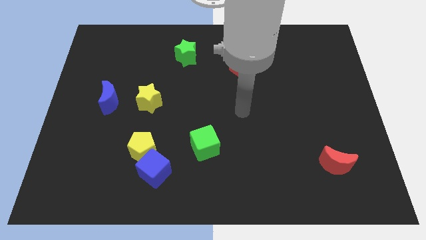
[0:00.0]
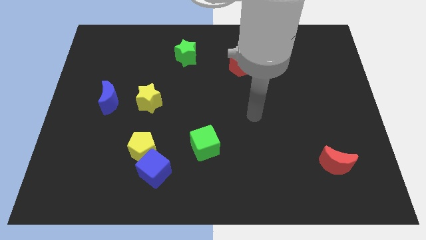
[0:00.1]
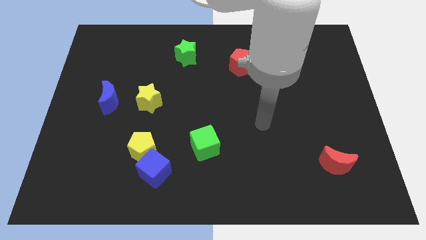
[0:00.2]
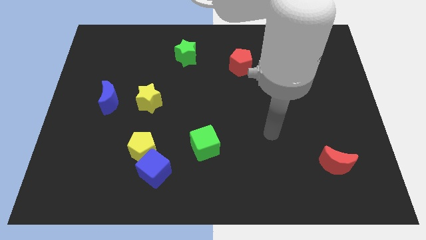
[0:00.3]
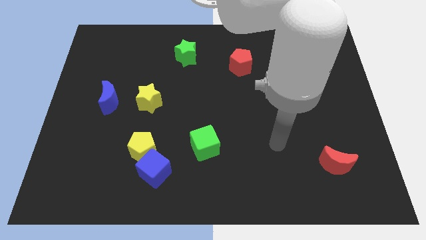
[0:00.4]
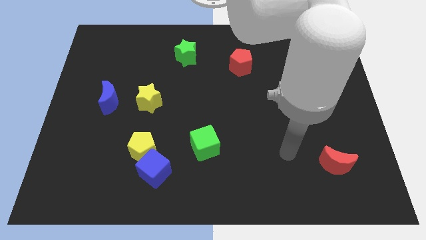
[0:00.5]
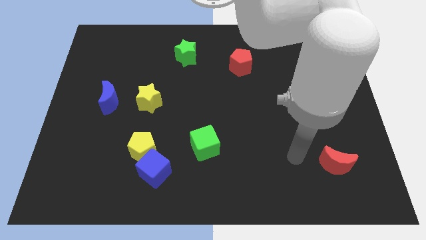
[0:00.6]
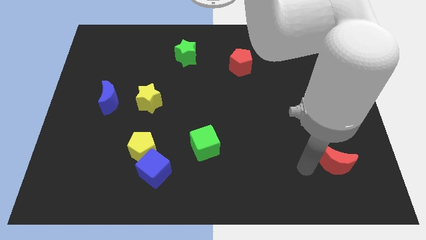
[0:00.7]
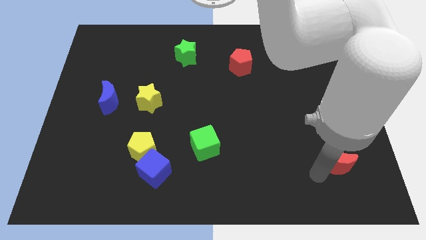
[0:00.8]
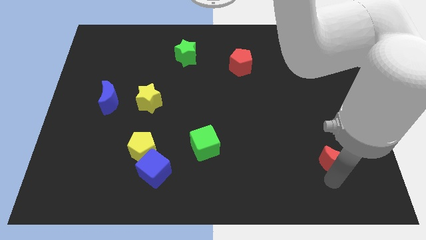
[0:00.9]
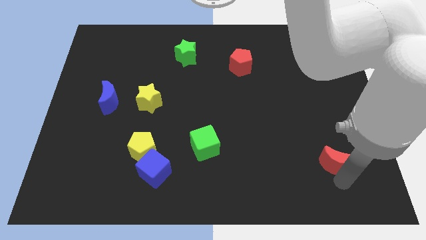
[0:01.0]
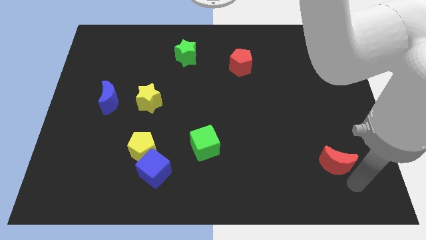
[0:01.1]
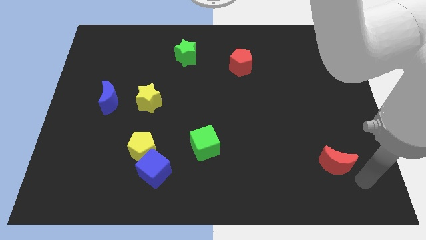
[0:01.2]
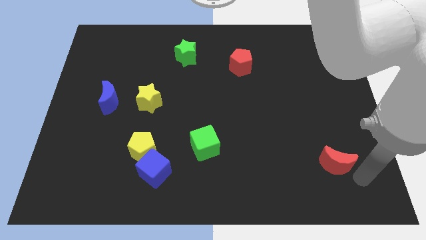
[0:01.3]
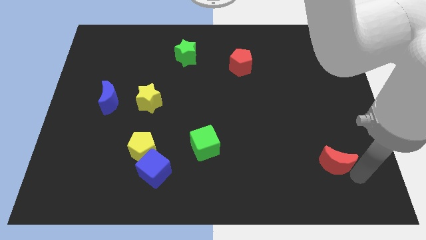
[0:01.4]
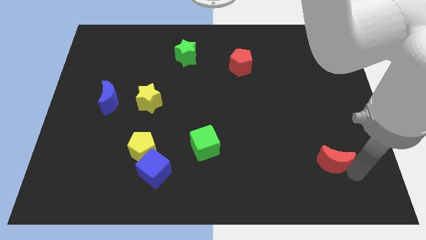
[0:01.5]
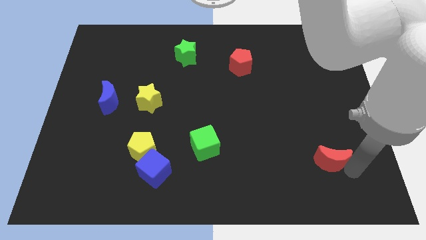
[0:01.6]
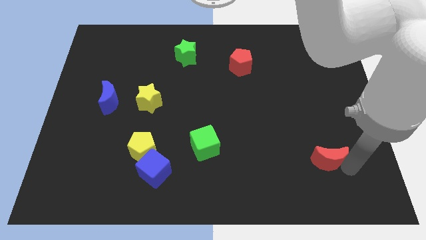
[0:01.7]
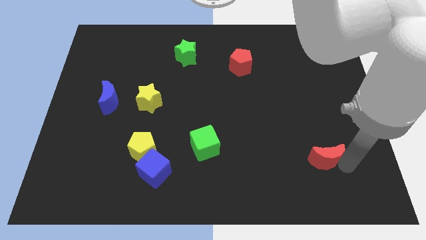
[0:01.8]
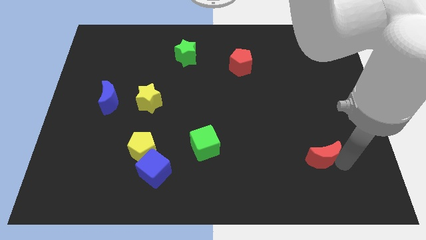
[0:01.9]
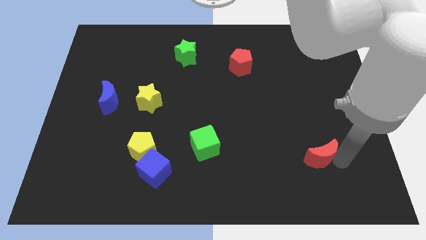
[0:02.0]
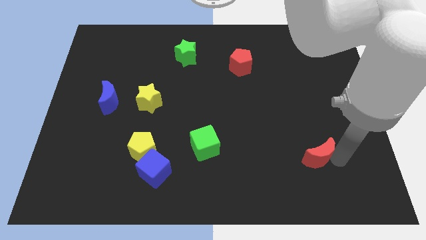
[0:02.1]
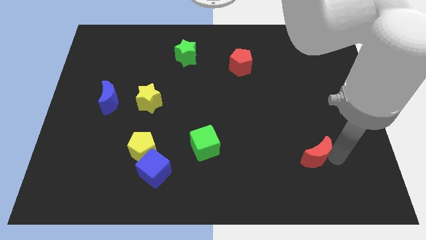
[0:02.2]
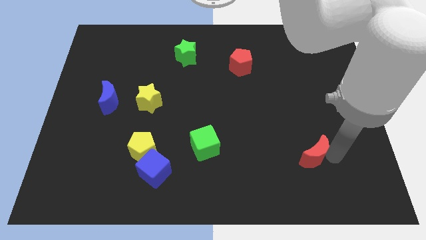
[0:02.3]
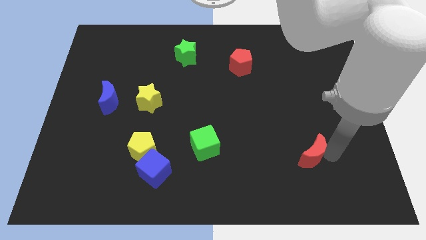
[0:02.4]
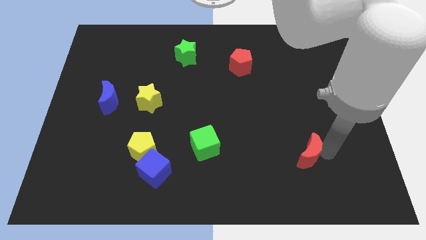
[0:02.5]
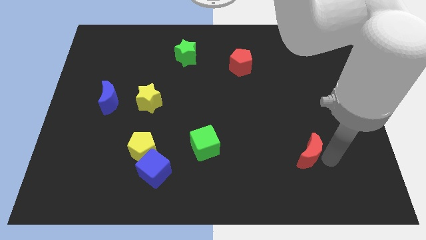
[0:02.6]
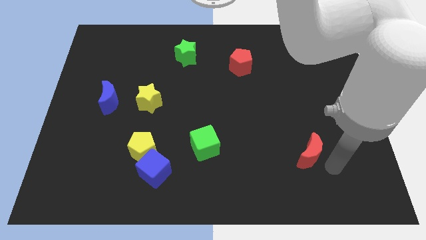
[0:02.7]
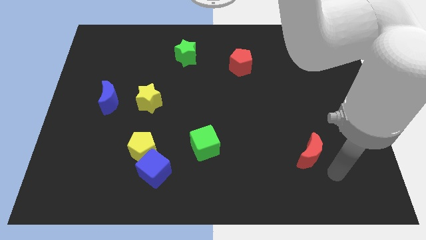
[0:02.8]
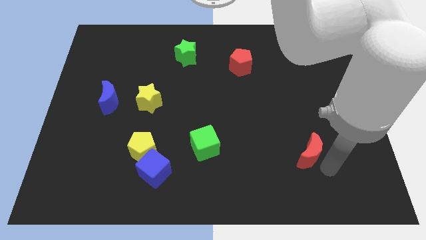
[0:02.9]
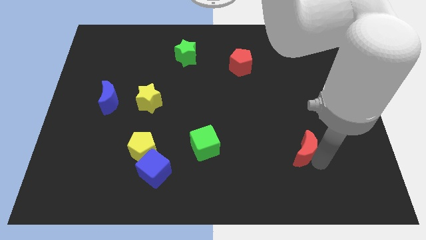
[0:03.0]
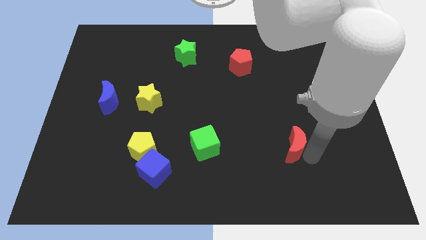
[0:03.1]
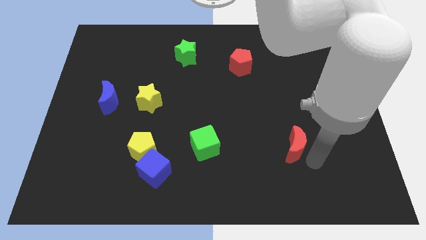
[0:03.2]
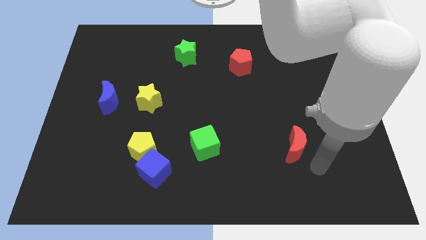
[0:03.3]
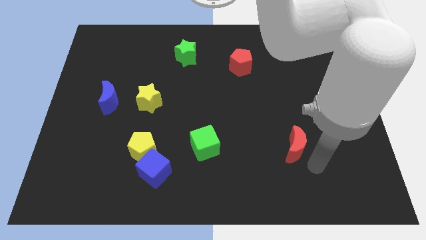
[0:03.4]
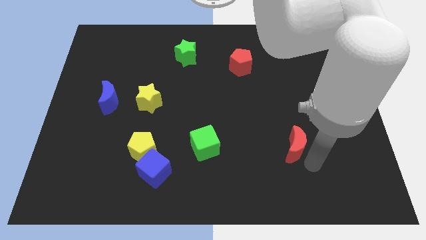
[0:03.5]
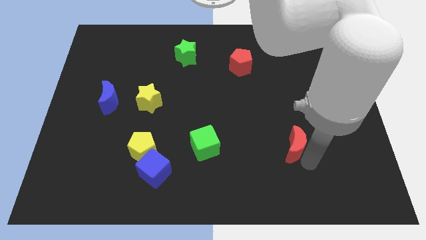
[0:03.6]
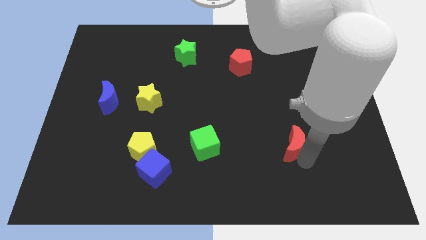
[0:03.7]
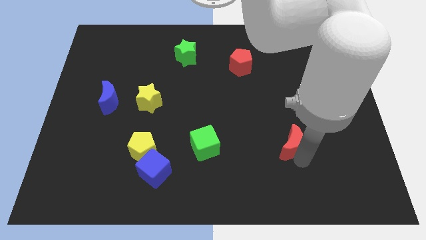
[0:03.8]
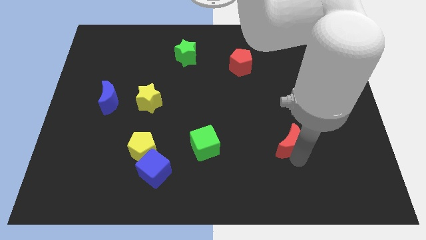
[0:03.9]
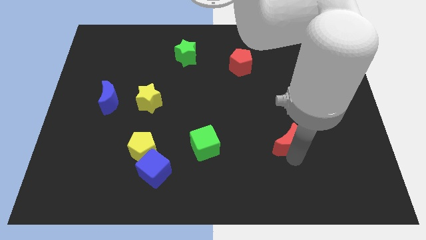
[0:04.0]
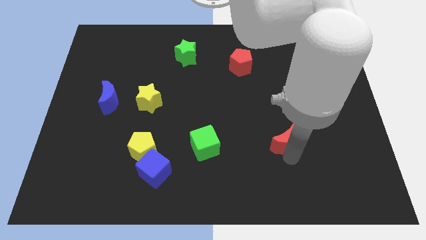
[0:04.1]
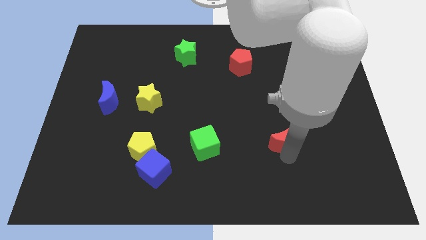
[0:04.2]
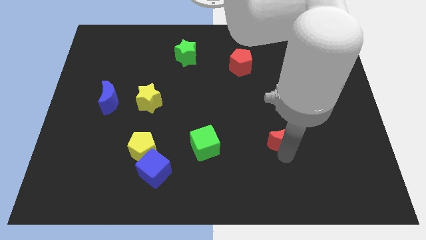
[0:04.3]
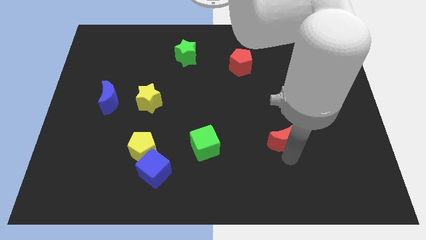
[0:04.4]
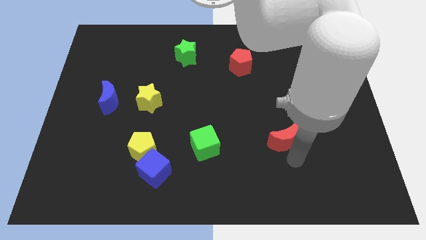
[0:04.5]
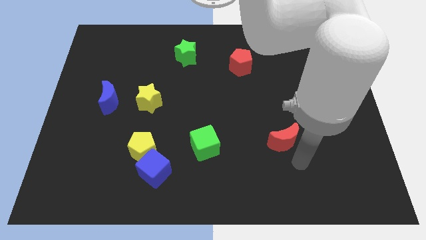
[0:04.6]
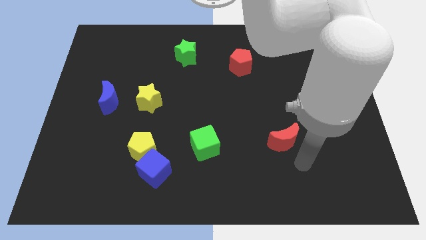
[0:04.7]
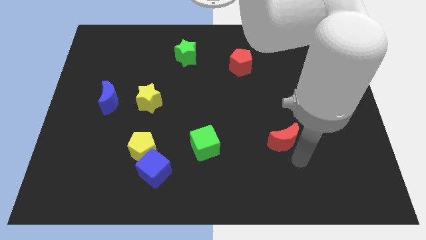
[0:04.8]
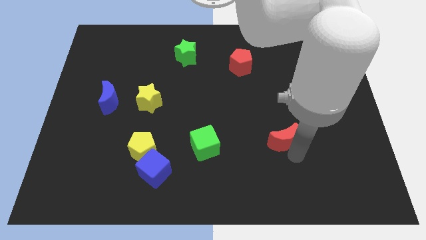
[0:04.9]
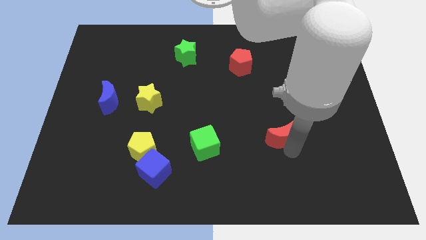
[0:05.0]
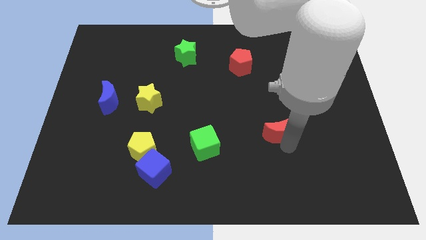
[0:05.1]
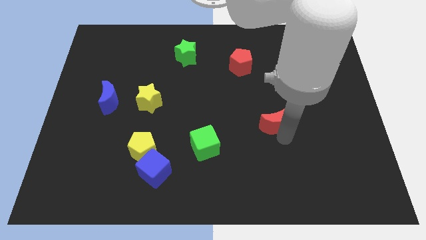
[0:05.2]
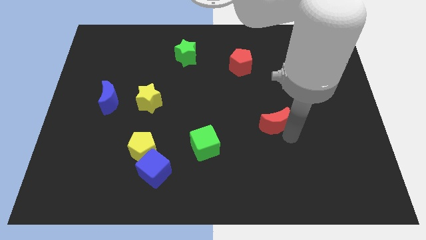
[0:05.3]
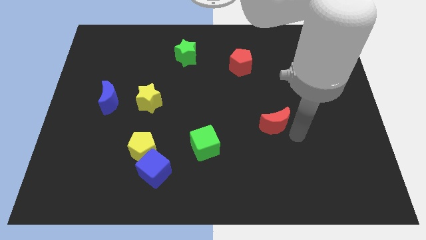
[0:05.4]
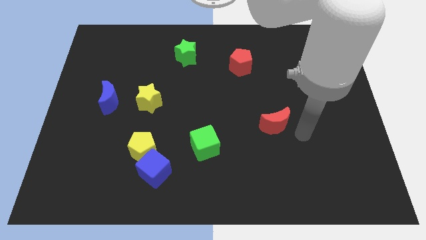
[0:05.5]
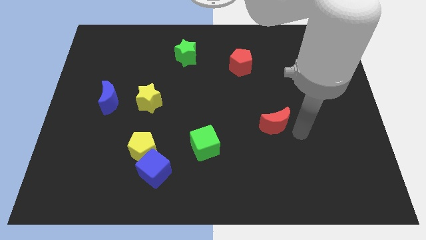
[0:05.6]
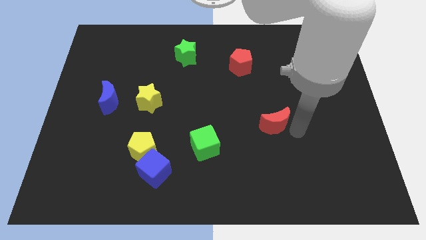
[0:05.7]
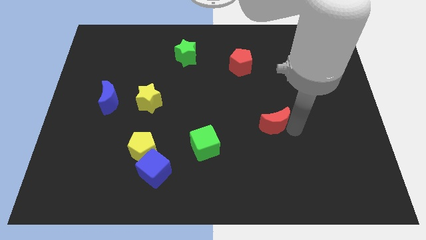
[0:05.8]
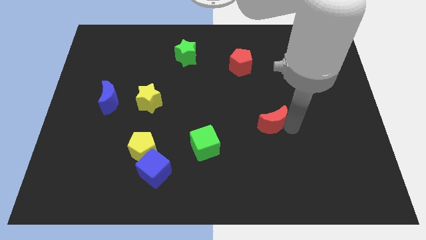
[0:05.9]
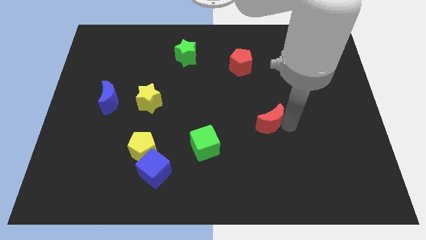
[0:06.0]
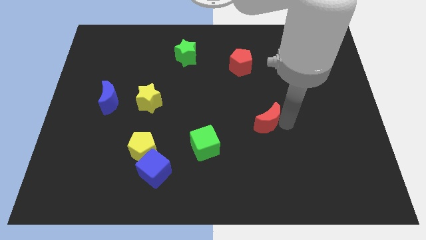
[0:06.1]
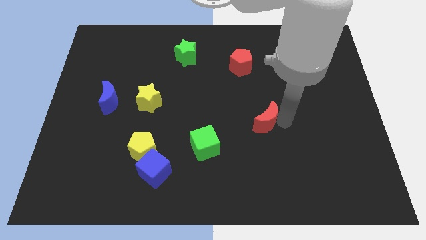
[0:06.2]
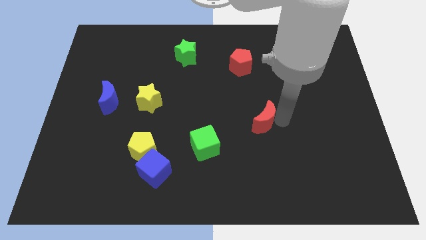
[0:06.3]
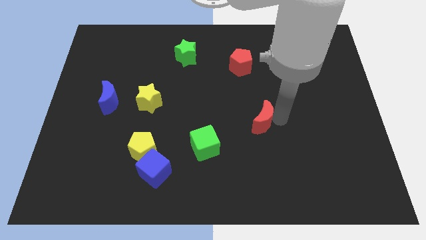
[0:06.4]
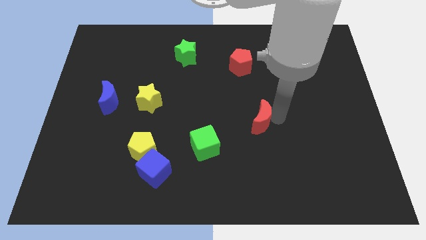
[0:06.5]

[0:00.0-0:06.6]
push the red moon to the middle
